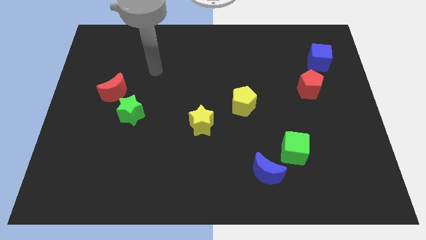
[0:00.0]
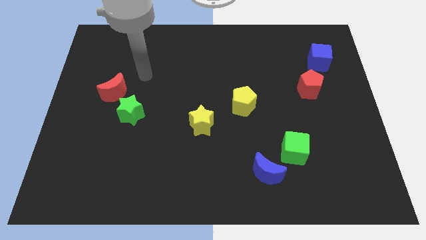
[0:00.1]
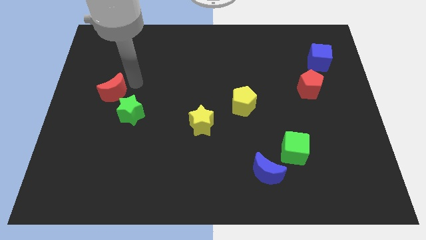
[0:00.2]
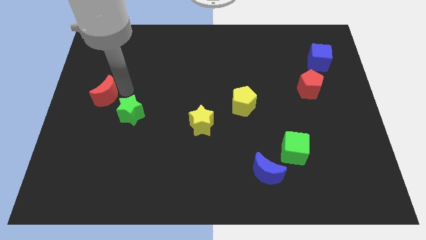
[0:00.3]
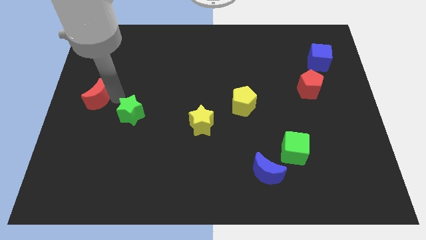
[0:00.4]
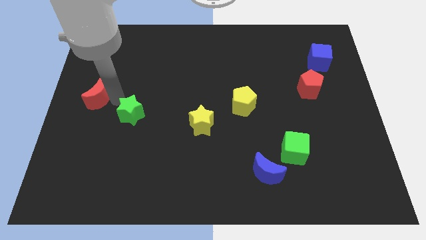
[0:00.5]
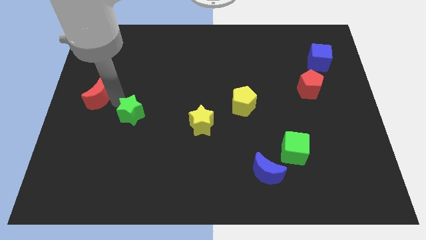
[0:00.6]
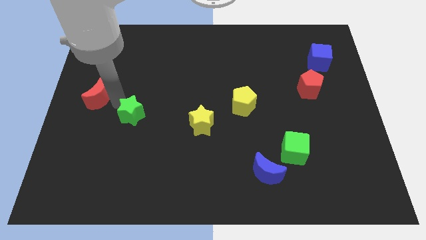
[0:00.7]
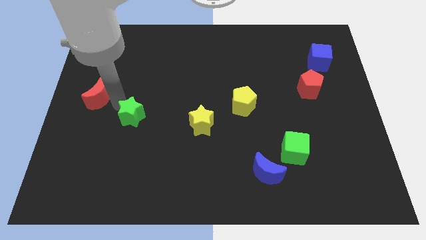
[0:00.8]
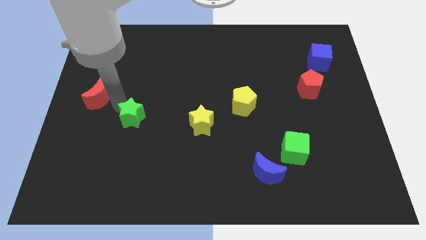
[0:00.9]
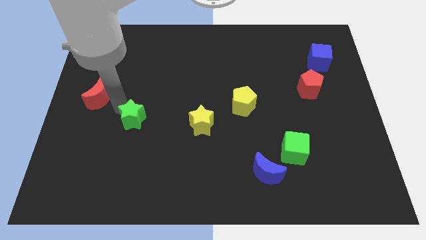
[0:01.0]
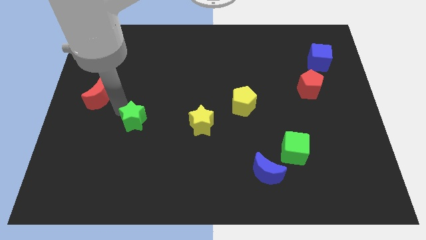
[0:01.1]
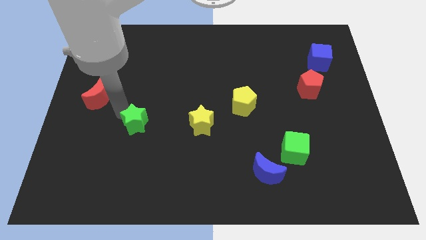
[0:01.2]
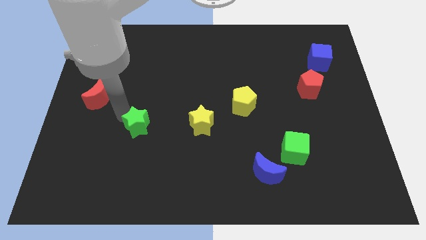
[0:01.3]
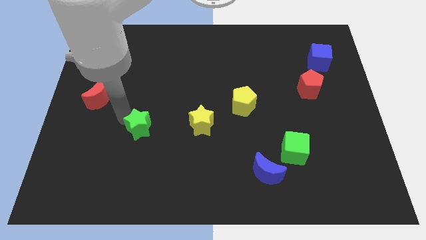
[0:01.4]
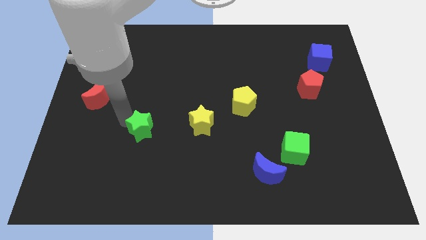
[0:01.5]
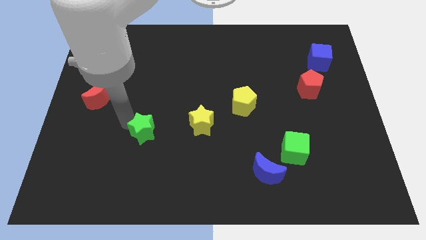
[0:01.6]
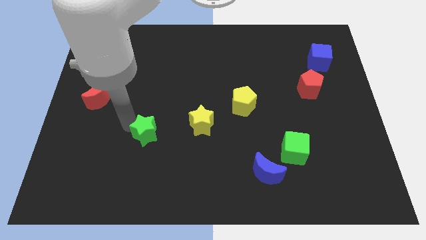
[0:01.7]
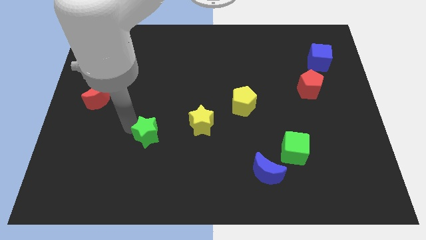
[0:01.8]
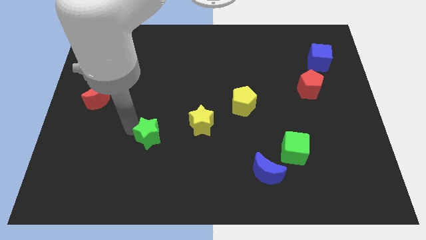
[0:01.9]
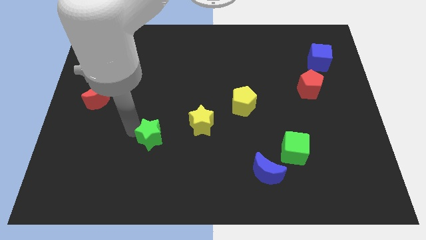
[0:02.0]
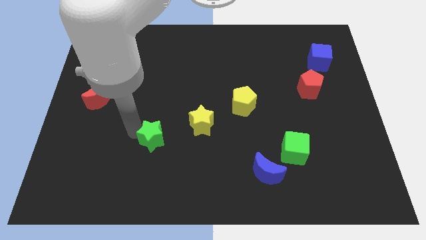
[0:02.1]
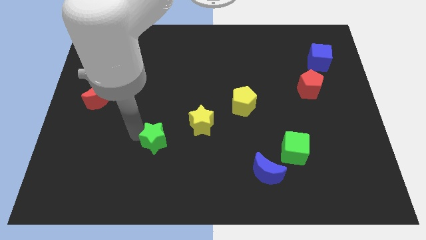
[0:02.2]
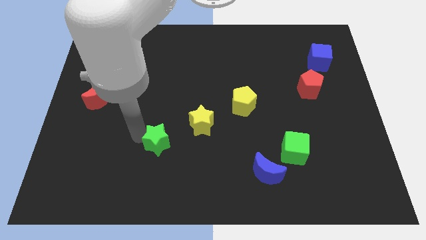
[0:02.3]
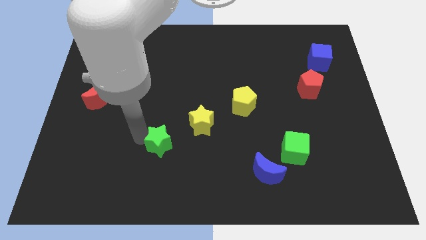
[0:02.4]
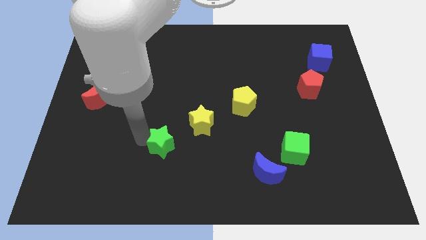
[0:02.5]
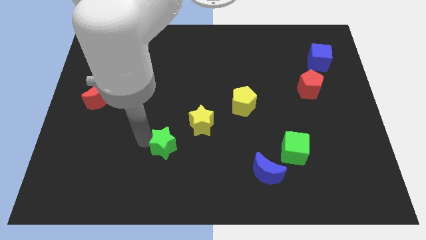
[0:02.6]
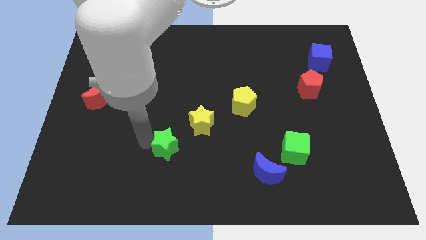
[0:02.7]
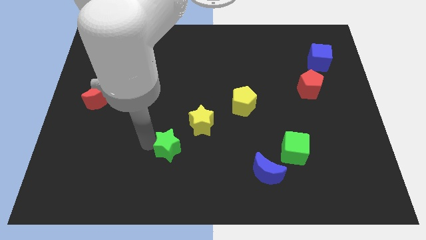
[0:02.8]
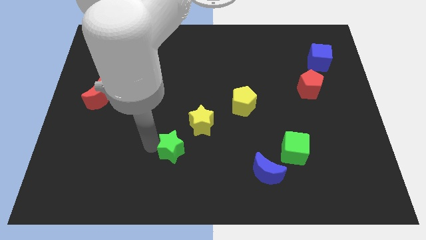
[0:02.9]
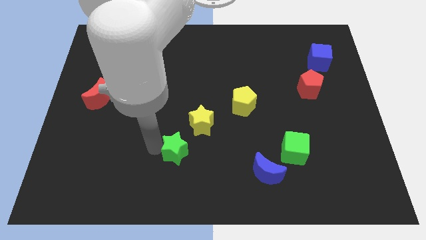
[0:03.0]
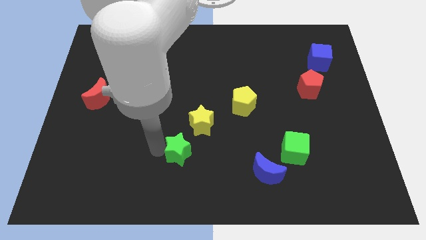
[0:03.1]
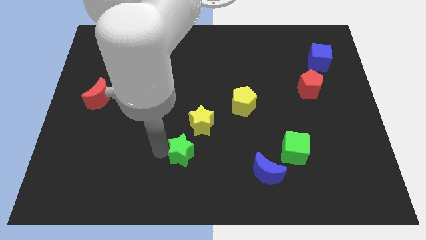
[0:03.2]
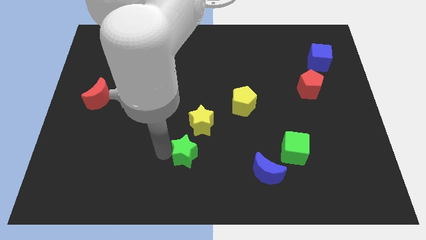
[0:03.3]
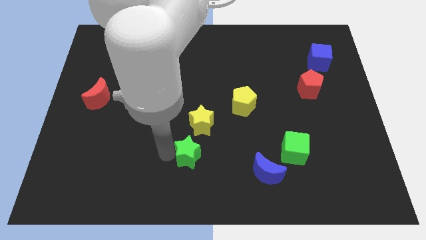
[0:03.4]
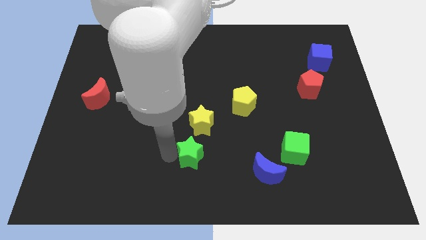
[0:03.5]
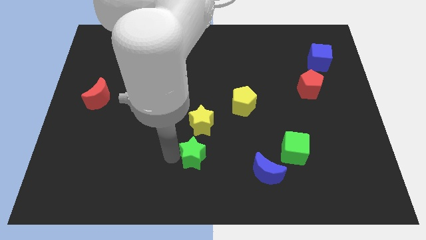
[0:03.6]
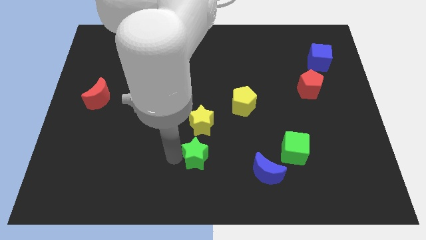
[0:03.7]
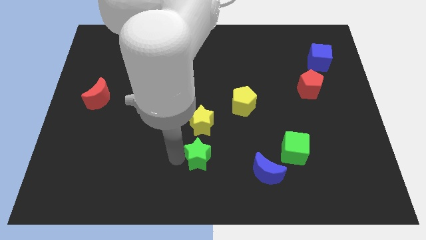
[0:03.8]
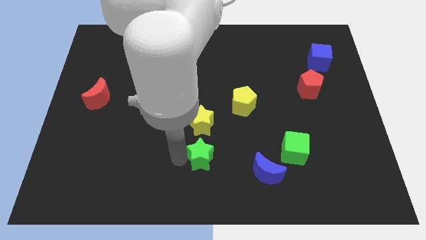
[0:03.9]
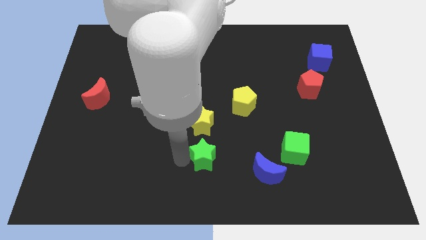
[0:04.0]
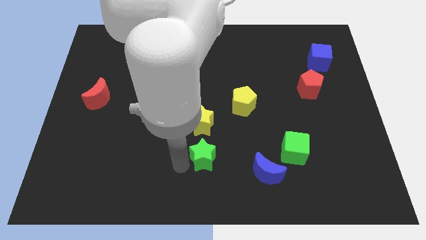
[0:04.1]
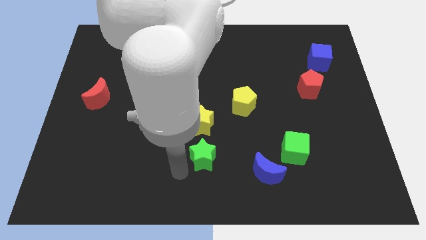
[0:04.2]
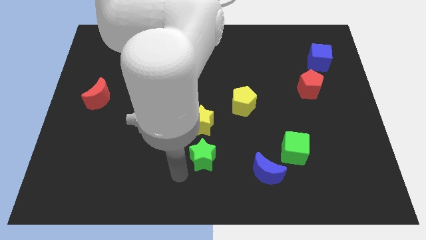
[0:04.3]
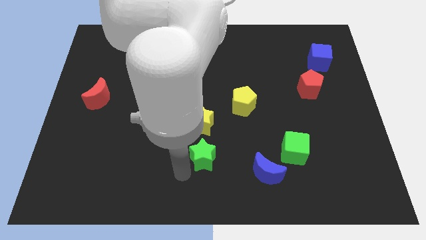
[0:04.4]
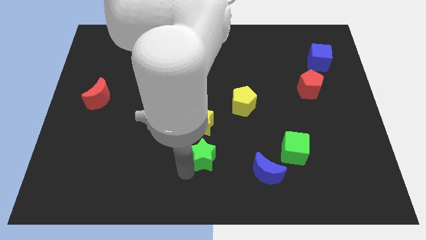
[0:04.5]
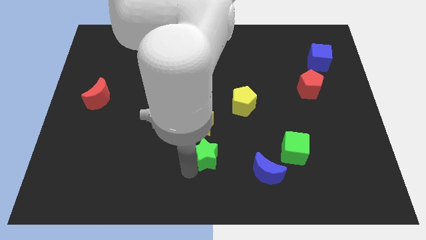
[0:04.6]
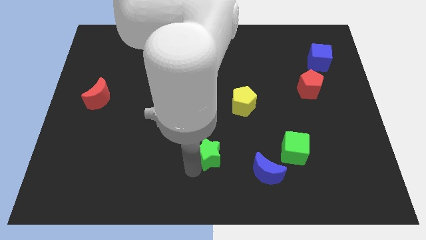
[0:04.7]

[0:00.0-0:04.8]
push the green star to the bottom right side of the yellow star

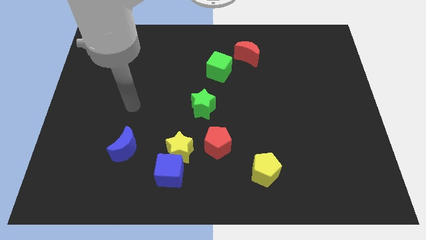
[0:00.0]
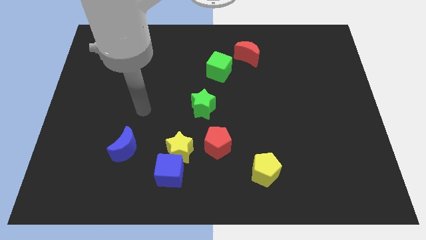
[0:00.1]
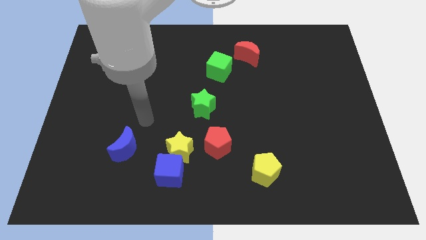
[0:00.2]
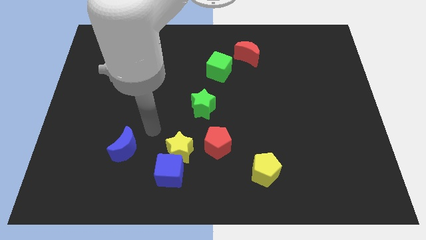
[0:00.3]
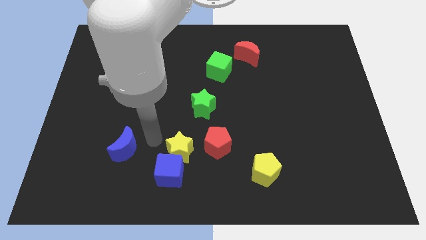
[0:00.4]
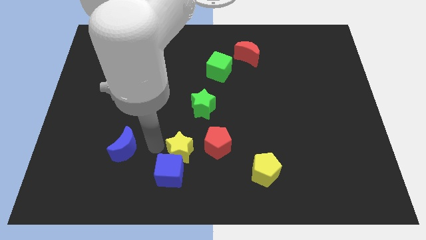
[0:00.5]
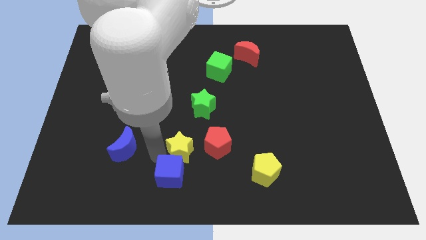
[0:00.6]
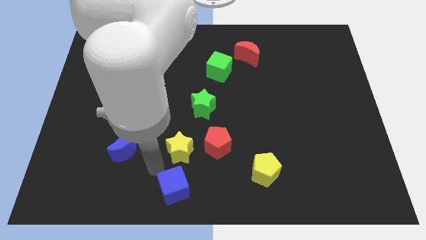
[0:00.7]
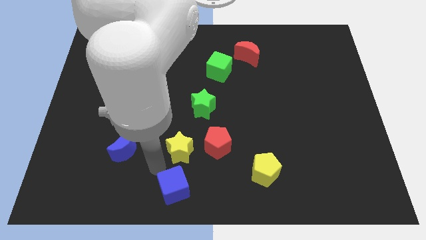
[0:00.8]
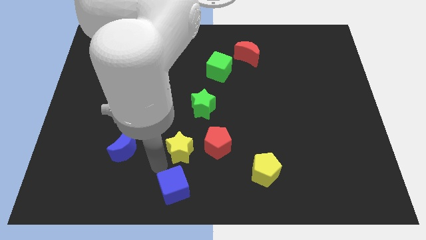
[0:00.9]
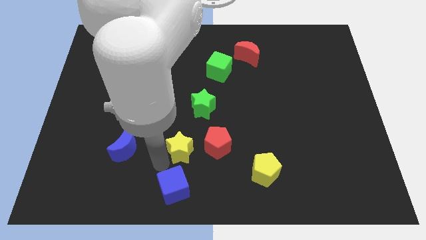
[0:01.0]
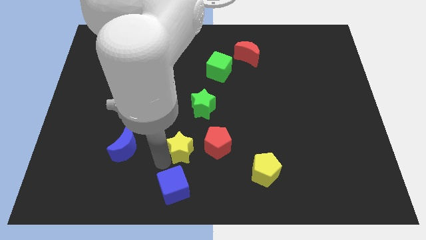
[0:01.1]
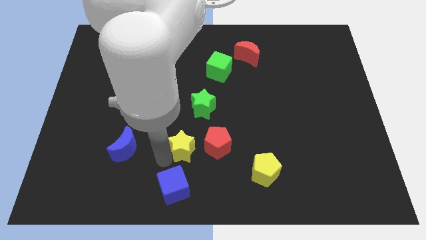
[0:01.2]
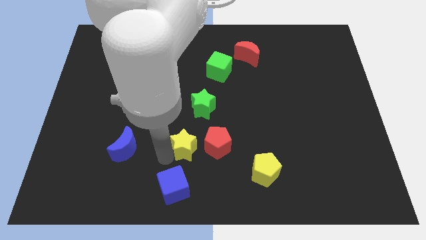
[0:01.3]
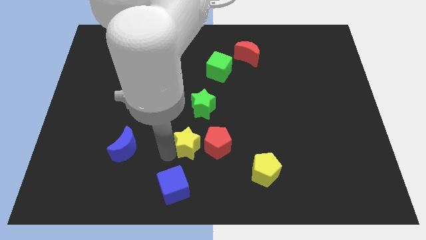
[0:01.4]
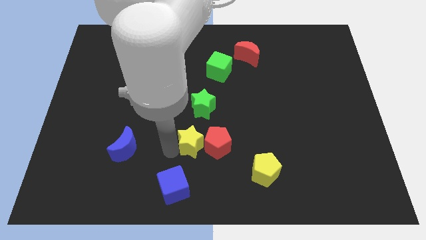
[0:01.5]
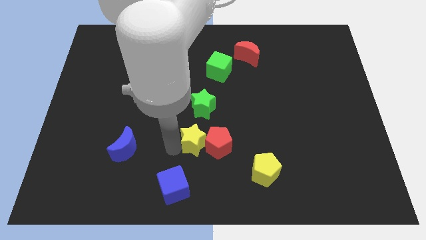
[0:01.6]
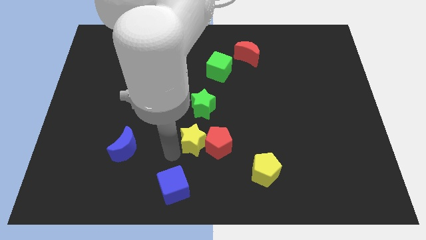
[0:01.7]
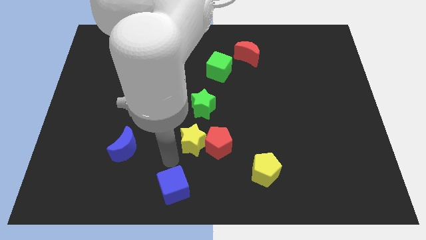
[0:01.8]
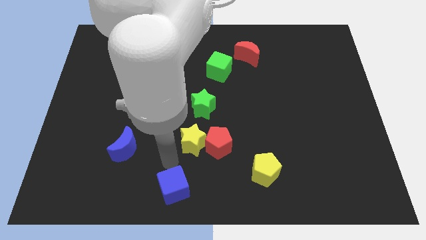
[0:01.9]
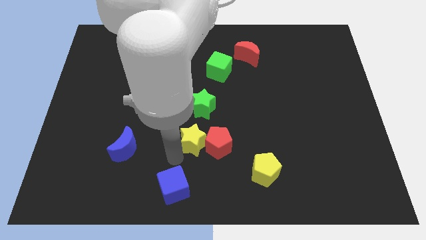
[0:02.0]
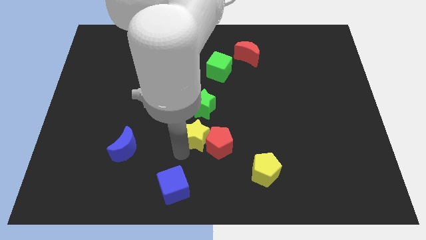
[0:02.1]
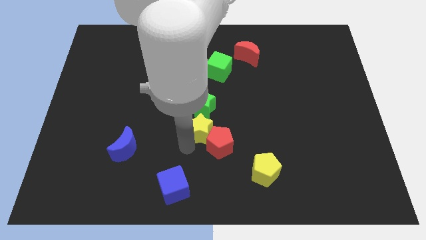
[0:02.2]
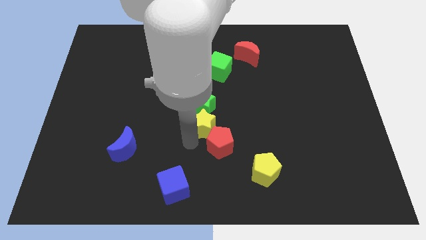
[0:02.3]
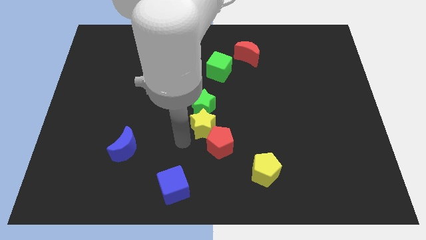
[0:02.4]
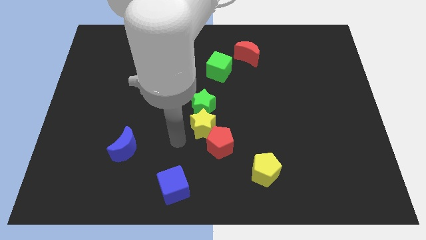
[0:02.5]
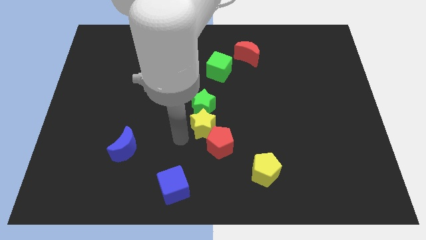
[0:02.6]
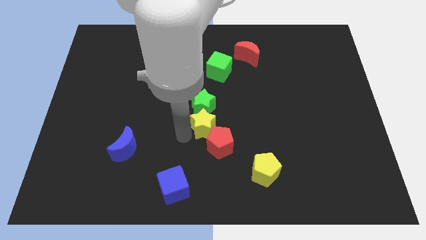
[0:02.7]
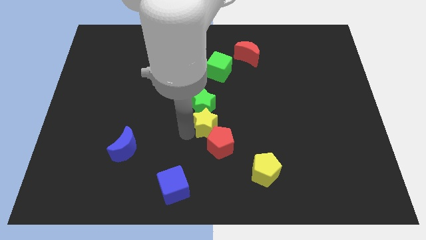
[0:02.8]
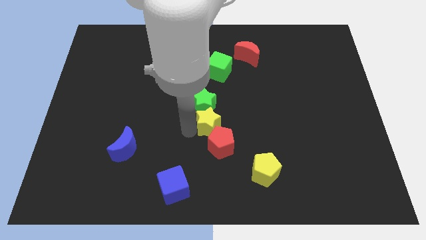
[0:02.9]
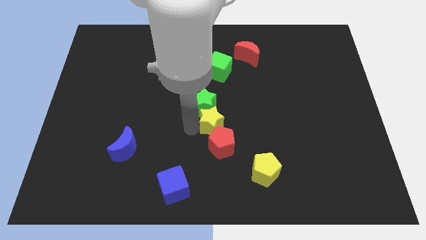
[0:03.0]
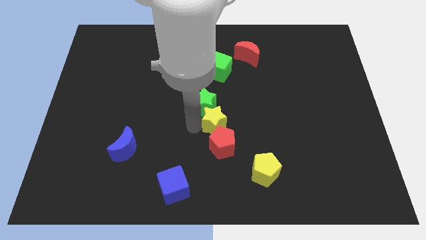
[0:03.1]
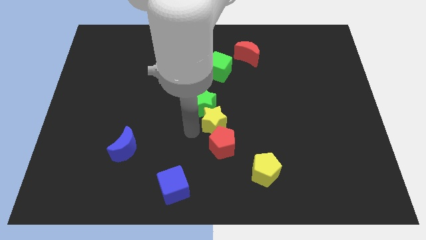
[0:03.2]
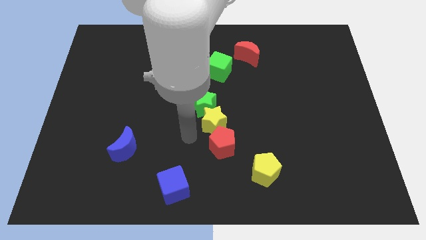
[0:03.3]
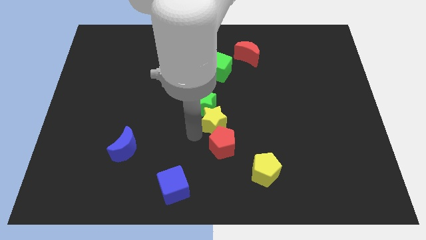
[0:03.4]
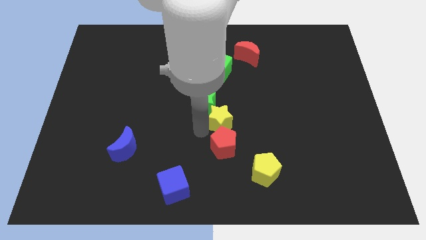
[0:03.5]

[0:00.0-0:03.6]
push the yellow star just right of the green star
